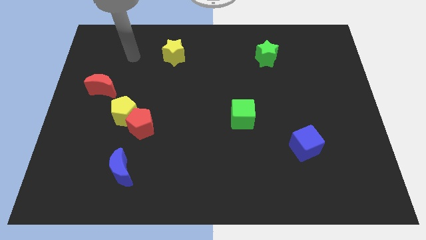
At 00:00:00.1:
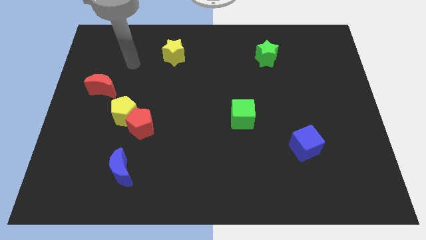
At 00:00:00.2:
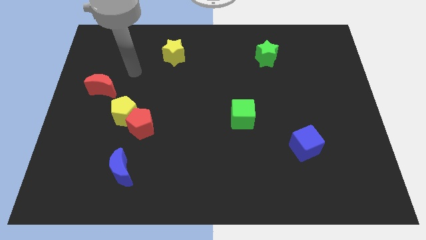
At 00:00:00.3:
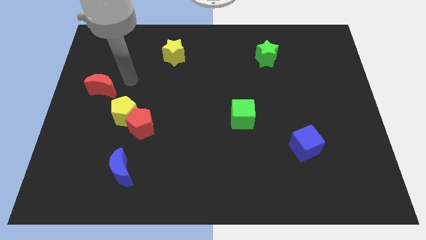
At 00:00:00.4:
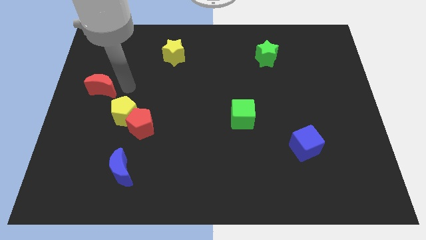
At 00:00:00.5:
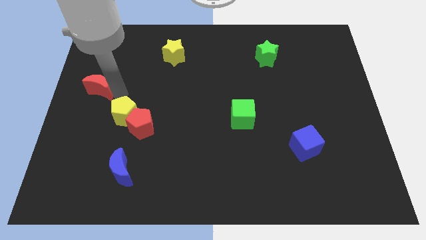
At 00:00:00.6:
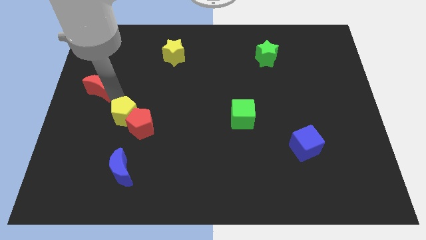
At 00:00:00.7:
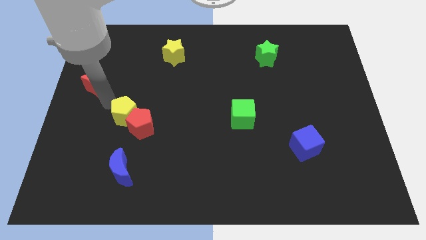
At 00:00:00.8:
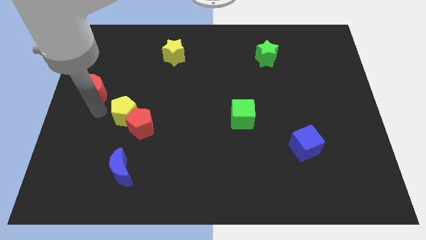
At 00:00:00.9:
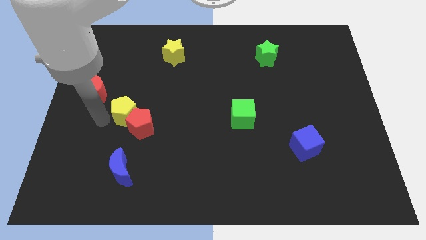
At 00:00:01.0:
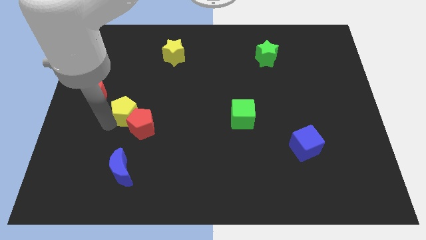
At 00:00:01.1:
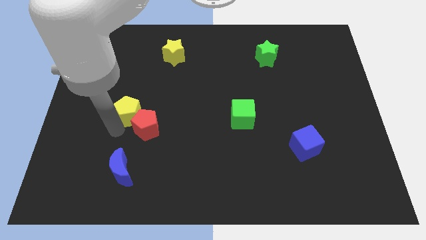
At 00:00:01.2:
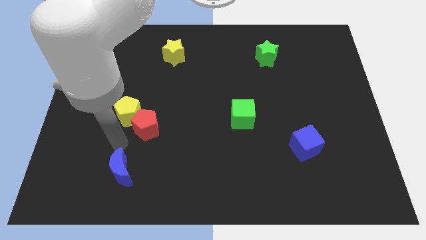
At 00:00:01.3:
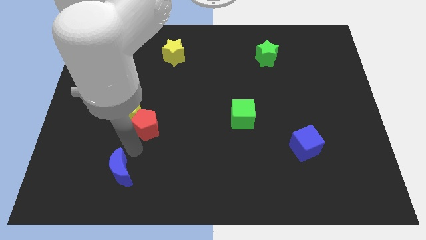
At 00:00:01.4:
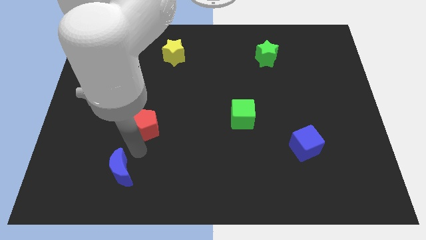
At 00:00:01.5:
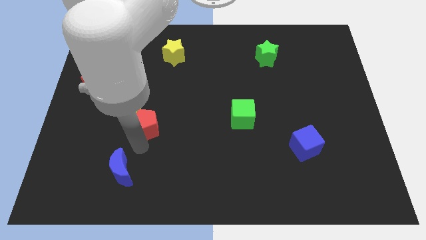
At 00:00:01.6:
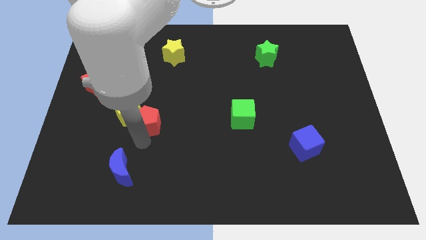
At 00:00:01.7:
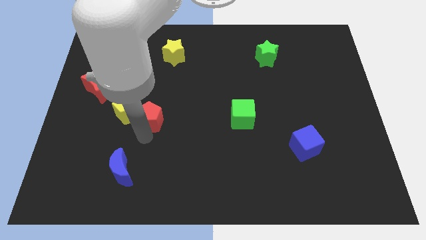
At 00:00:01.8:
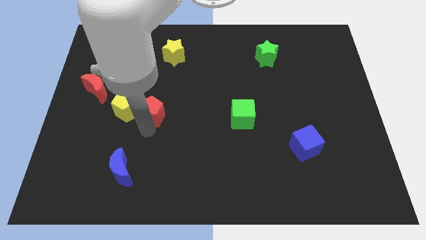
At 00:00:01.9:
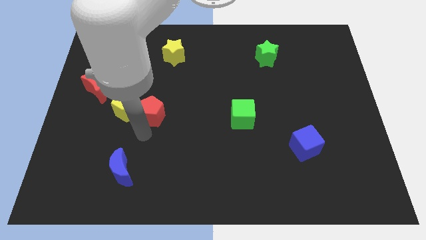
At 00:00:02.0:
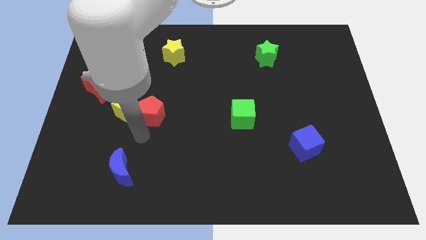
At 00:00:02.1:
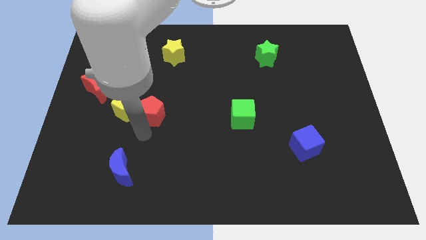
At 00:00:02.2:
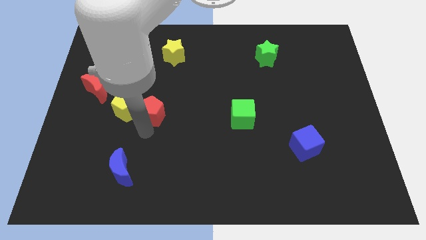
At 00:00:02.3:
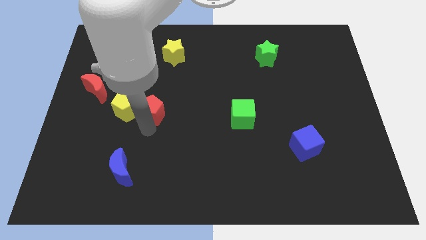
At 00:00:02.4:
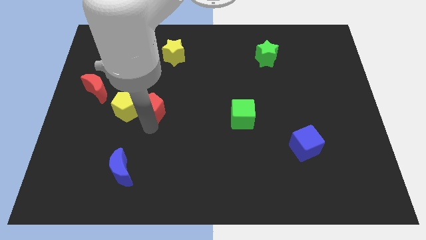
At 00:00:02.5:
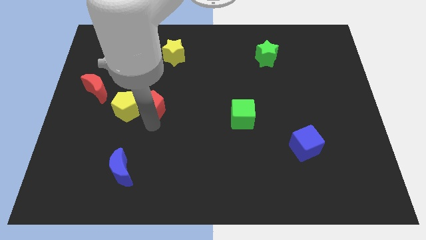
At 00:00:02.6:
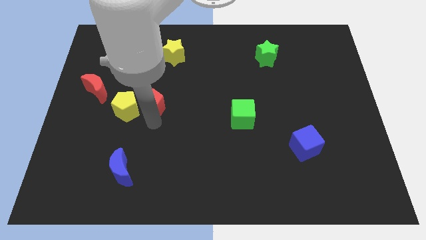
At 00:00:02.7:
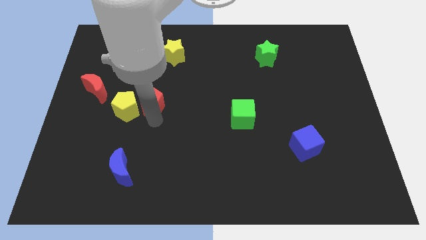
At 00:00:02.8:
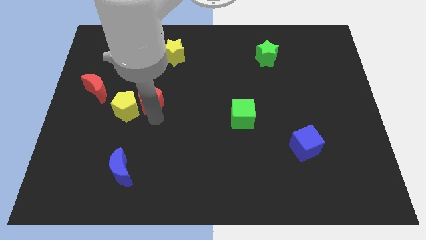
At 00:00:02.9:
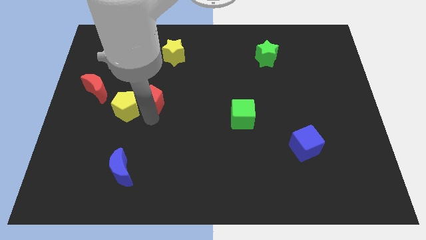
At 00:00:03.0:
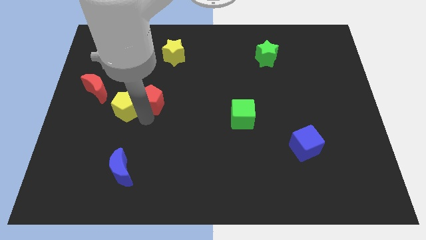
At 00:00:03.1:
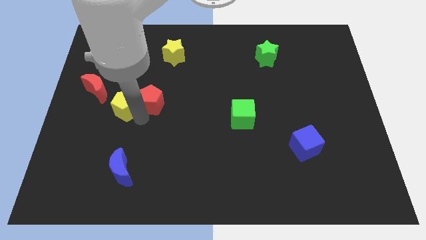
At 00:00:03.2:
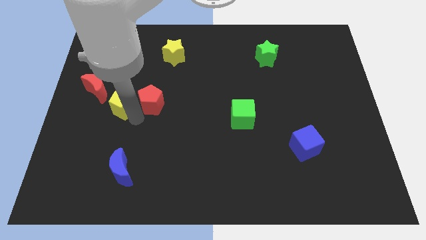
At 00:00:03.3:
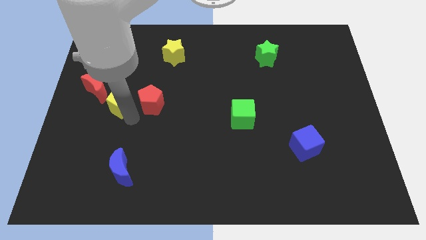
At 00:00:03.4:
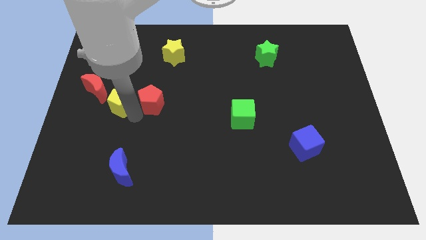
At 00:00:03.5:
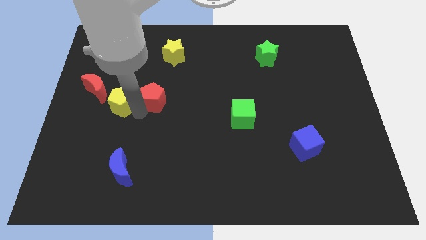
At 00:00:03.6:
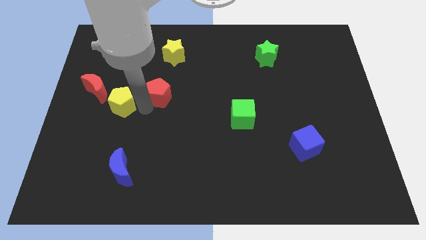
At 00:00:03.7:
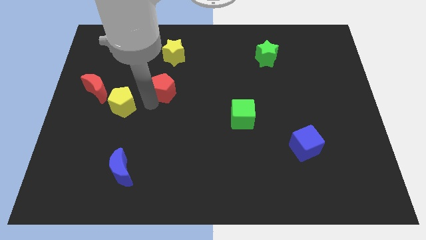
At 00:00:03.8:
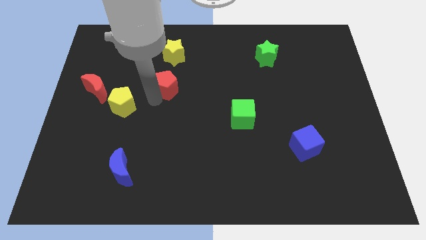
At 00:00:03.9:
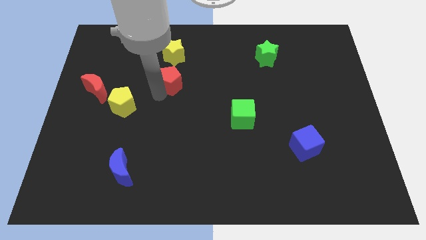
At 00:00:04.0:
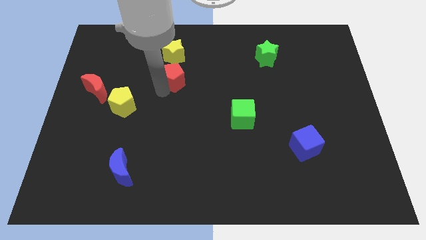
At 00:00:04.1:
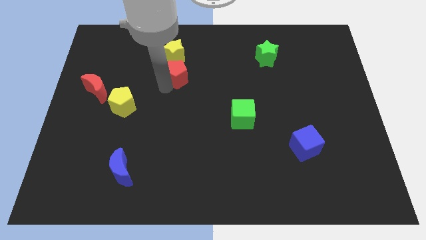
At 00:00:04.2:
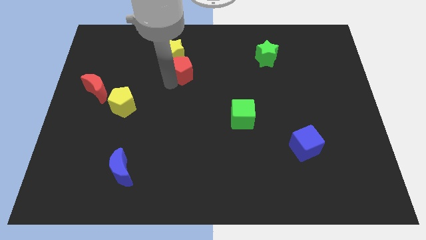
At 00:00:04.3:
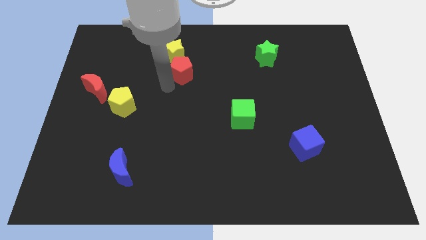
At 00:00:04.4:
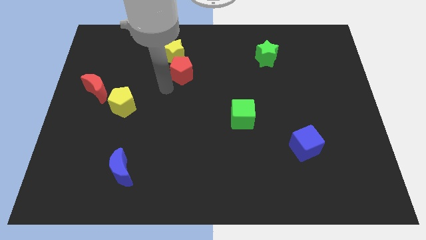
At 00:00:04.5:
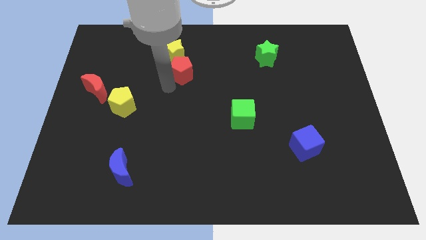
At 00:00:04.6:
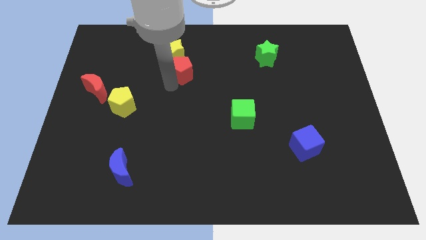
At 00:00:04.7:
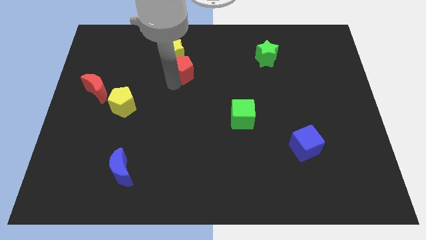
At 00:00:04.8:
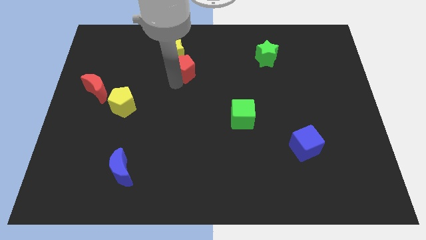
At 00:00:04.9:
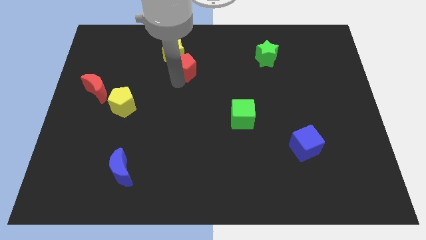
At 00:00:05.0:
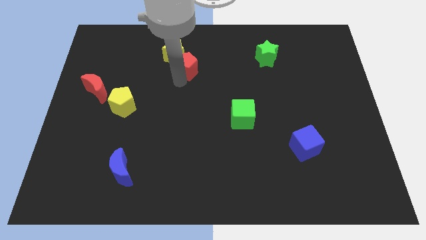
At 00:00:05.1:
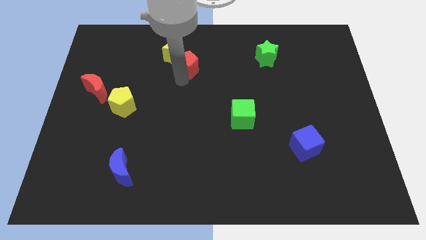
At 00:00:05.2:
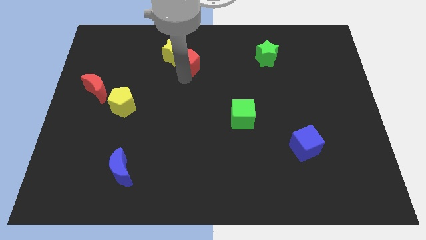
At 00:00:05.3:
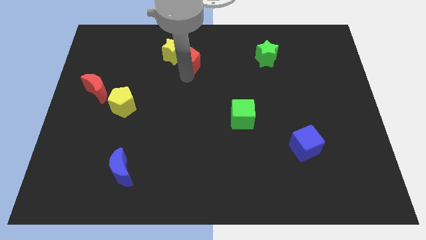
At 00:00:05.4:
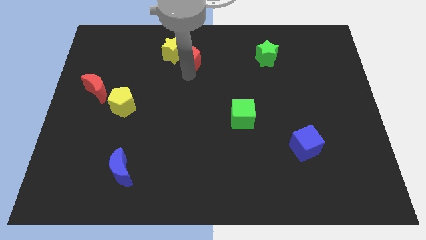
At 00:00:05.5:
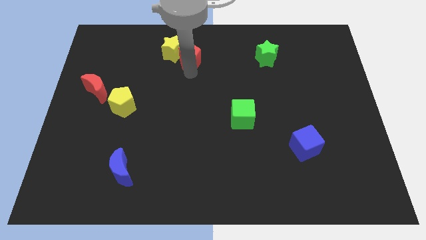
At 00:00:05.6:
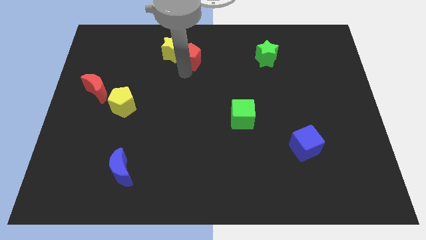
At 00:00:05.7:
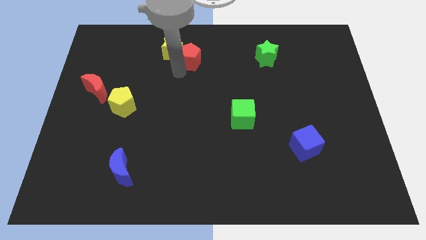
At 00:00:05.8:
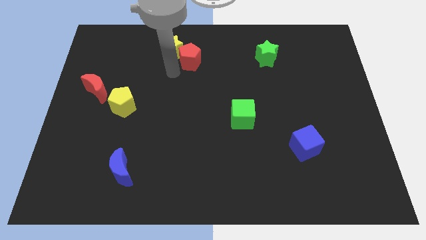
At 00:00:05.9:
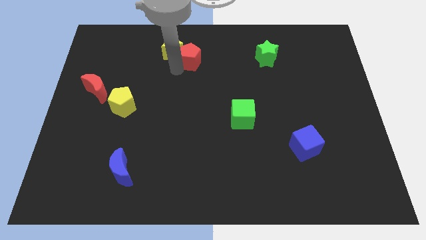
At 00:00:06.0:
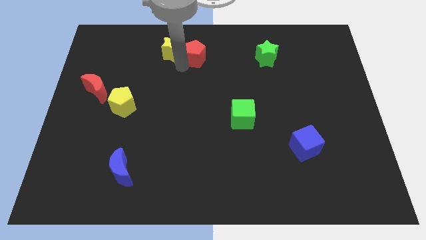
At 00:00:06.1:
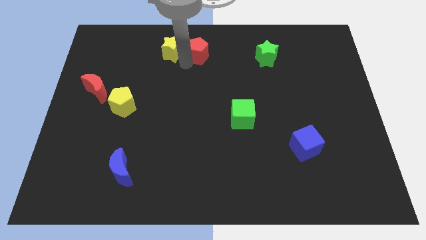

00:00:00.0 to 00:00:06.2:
slide the red pentagon to the top side

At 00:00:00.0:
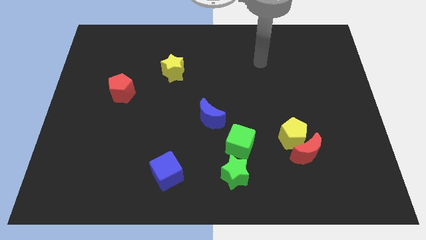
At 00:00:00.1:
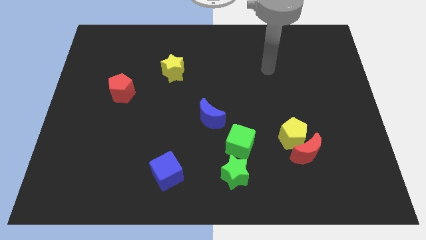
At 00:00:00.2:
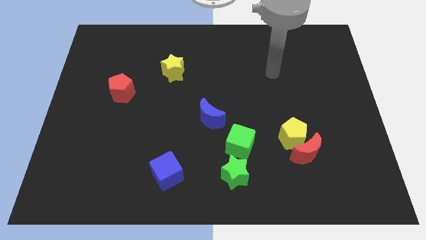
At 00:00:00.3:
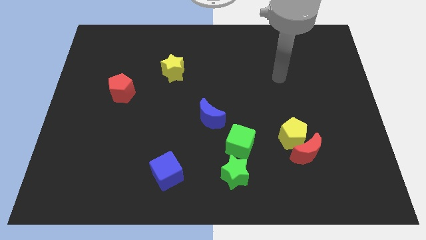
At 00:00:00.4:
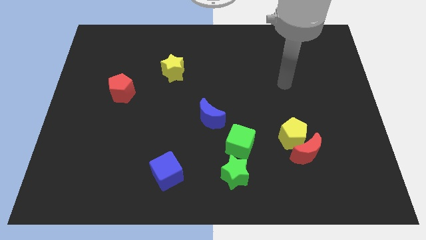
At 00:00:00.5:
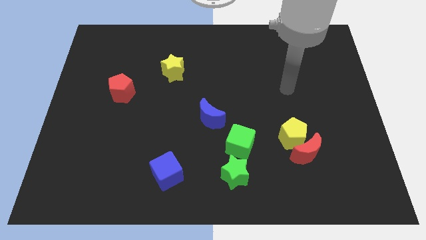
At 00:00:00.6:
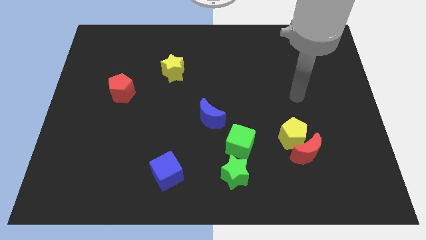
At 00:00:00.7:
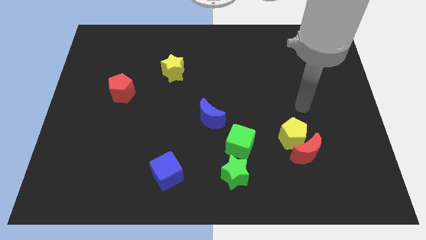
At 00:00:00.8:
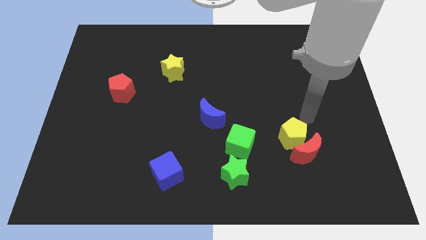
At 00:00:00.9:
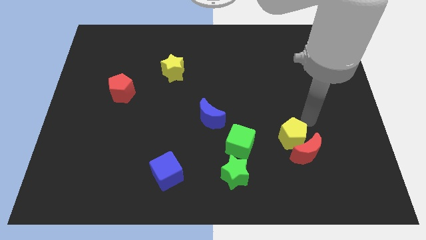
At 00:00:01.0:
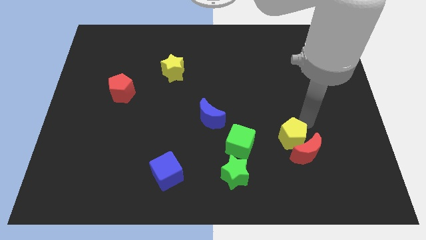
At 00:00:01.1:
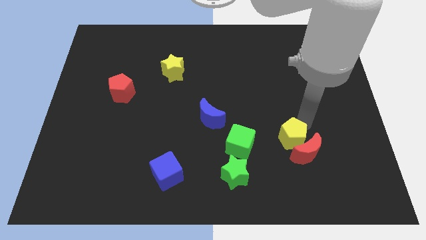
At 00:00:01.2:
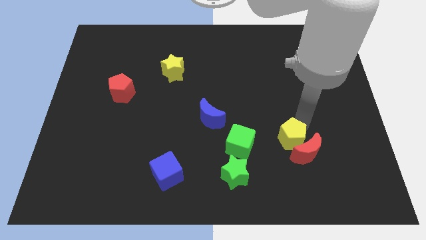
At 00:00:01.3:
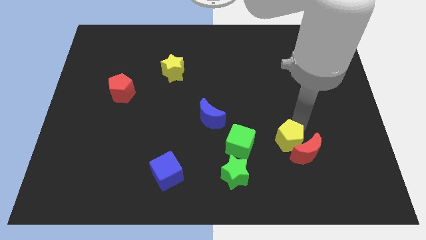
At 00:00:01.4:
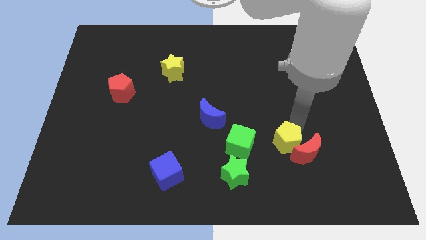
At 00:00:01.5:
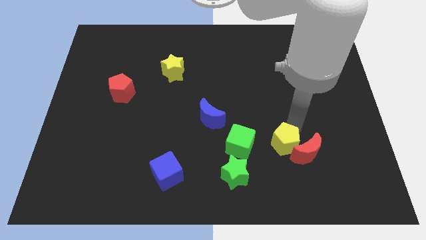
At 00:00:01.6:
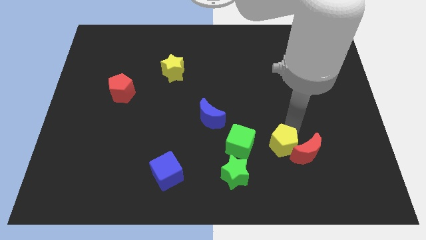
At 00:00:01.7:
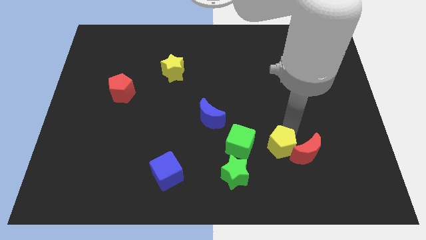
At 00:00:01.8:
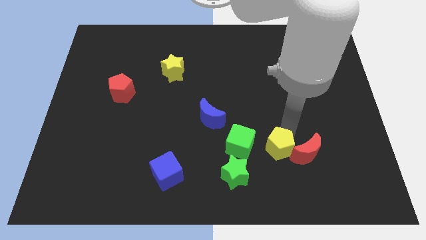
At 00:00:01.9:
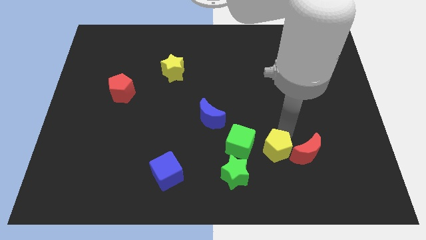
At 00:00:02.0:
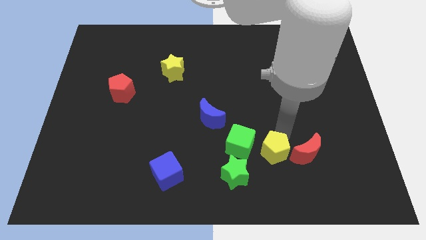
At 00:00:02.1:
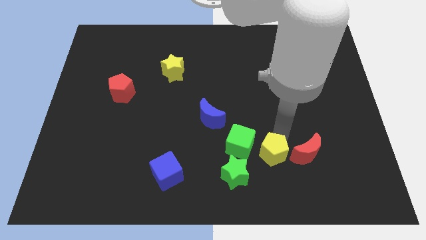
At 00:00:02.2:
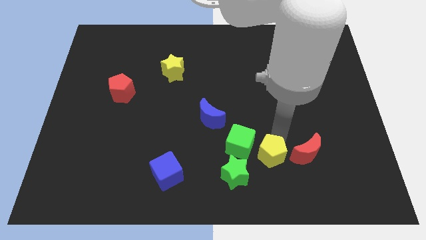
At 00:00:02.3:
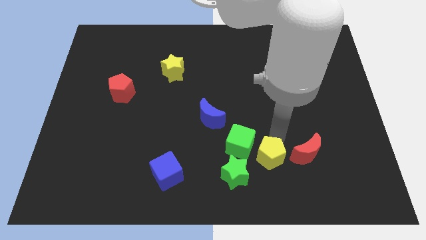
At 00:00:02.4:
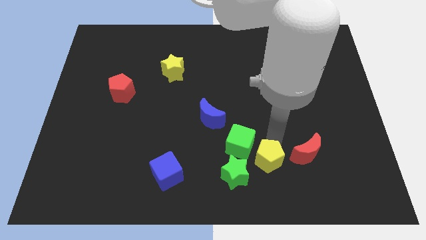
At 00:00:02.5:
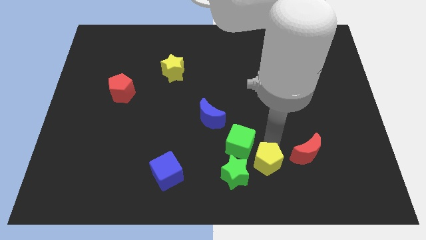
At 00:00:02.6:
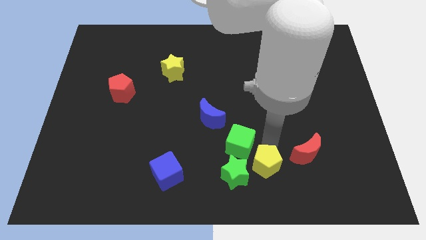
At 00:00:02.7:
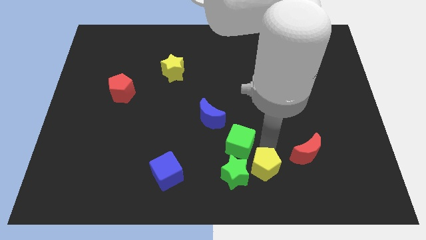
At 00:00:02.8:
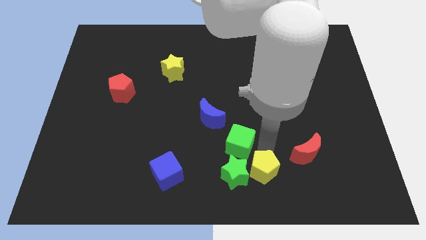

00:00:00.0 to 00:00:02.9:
slide the yellow pentagon to the bottom
